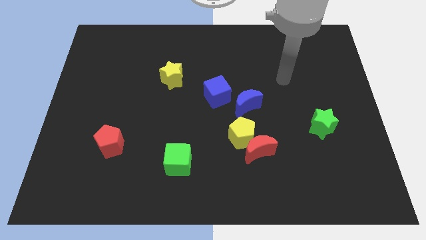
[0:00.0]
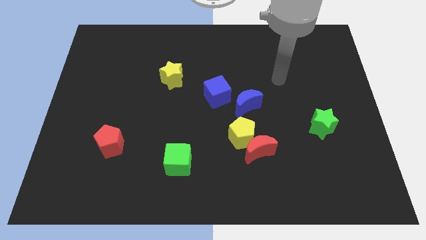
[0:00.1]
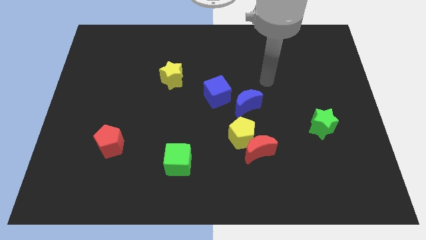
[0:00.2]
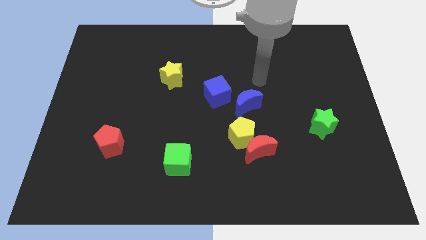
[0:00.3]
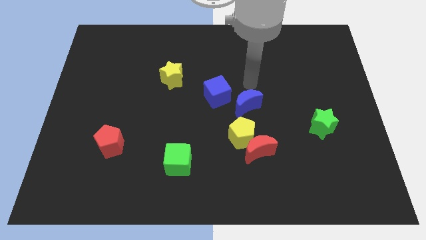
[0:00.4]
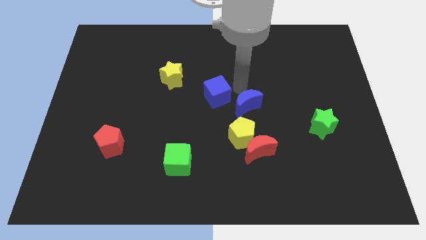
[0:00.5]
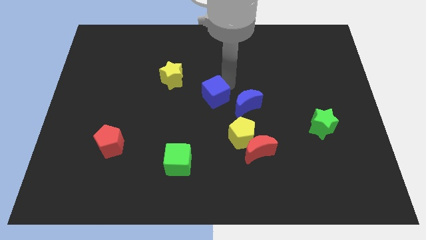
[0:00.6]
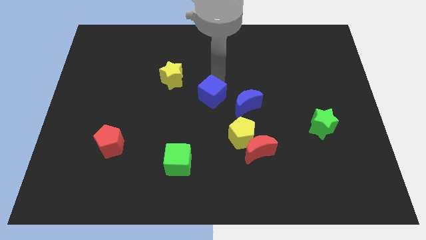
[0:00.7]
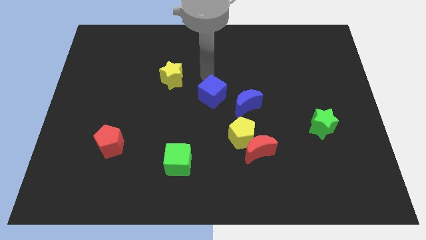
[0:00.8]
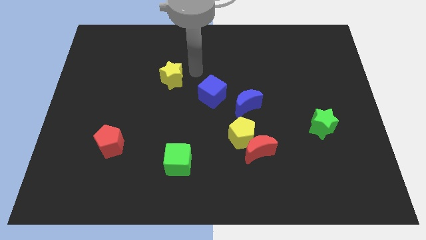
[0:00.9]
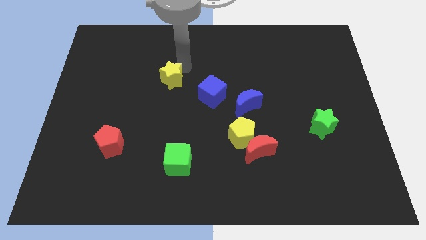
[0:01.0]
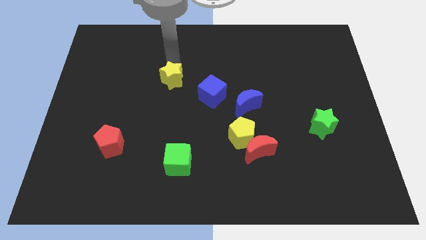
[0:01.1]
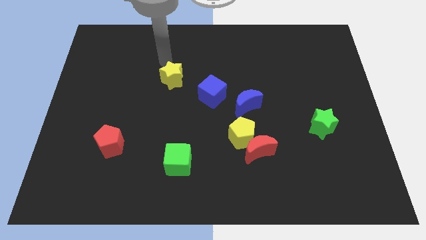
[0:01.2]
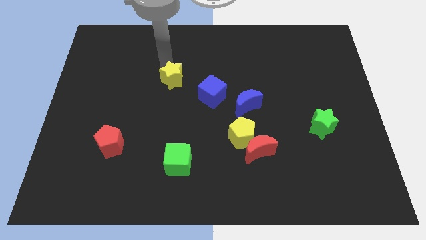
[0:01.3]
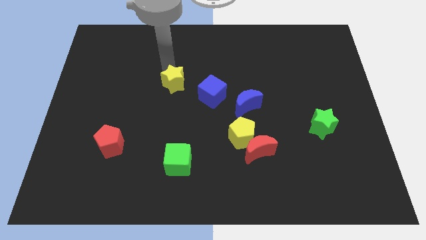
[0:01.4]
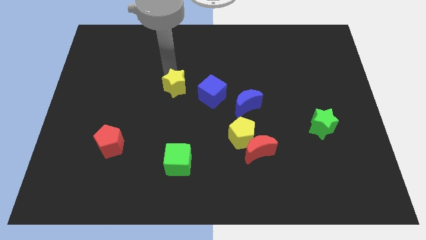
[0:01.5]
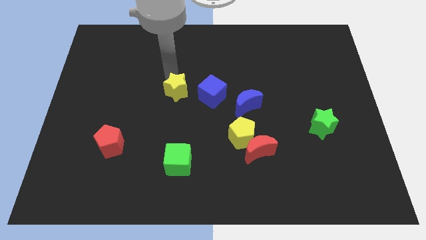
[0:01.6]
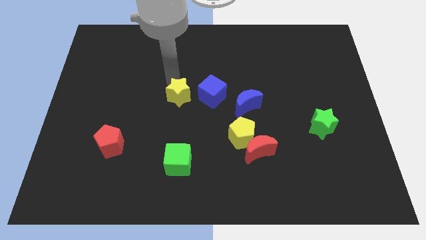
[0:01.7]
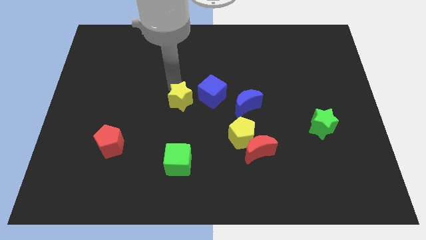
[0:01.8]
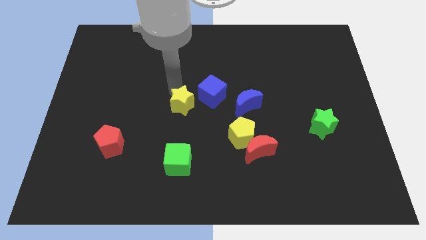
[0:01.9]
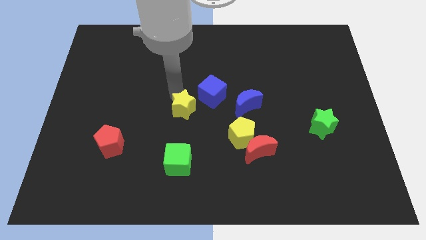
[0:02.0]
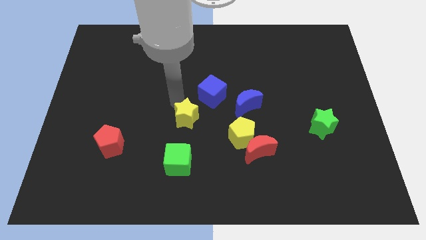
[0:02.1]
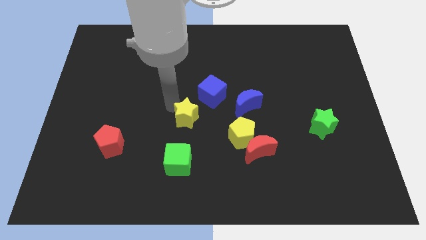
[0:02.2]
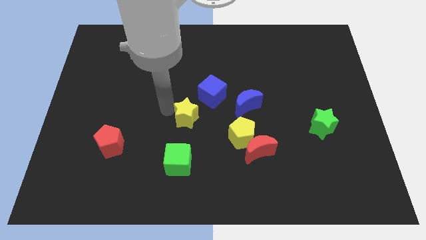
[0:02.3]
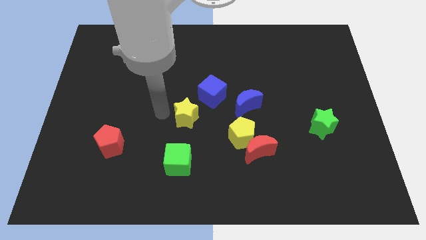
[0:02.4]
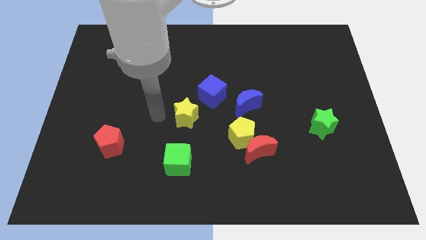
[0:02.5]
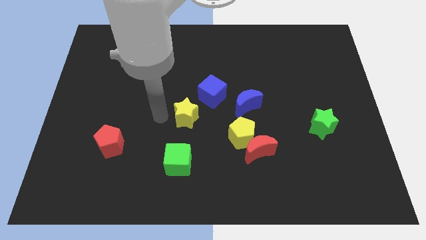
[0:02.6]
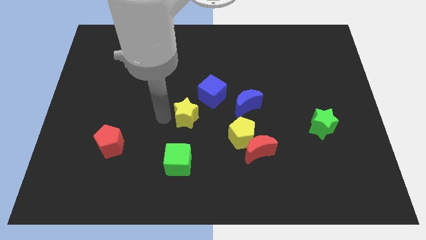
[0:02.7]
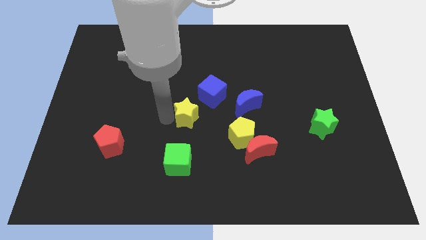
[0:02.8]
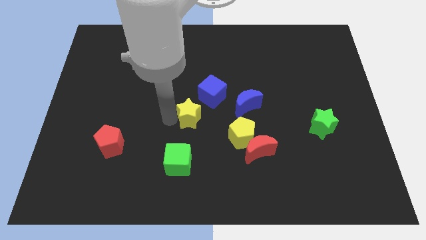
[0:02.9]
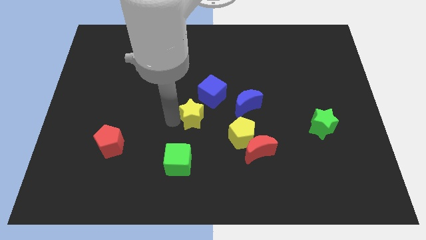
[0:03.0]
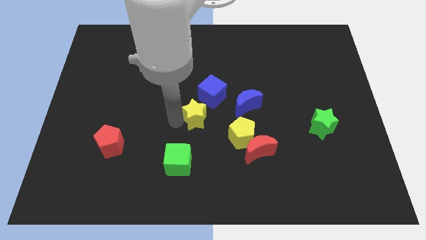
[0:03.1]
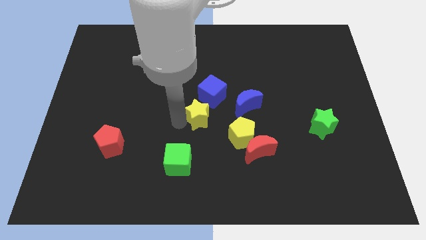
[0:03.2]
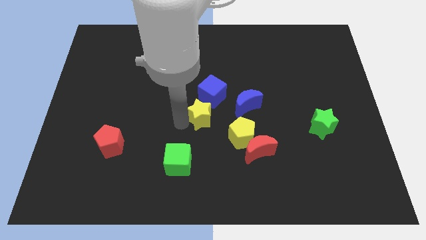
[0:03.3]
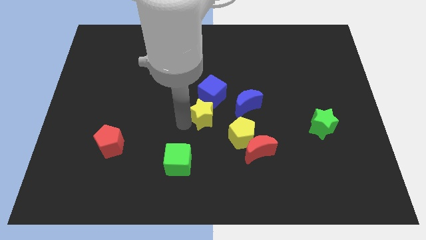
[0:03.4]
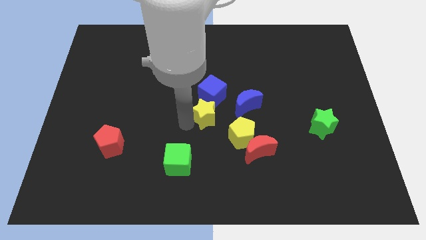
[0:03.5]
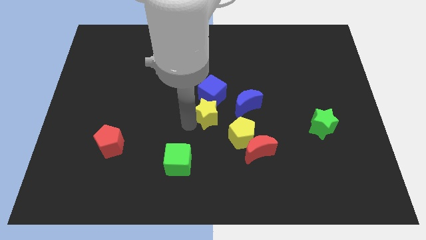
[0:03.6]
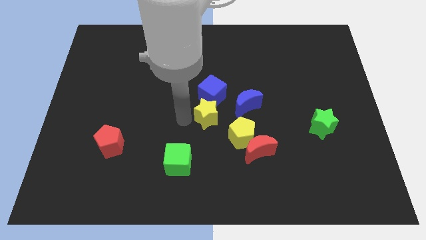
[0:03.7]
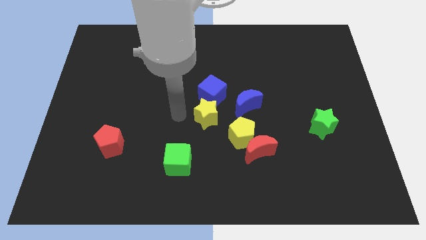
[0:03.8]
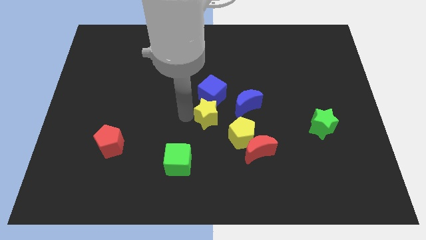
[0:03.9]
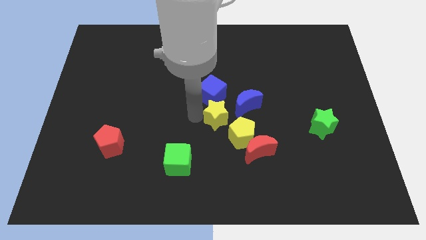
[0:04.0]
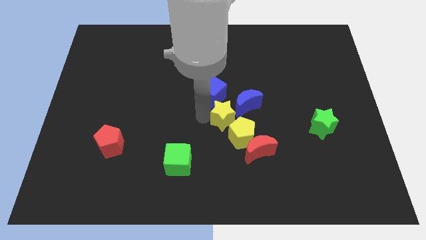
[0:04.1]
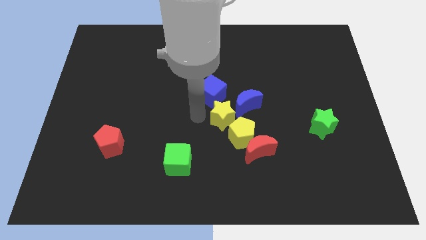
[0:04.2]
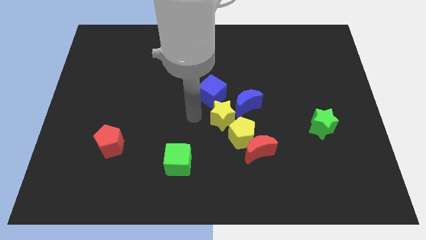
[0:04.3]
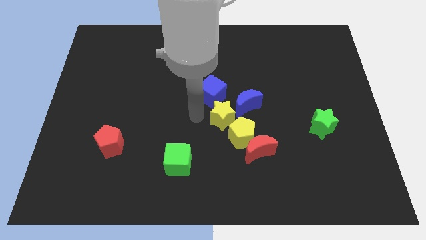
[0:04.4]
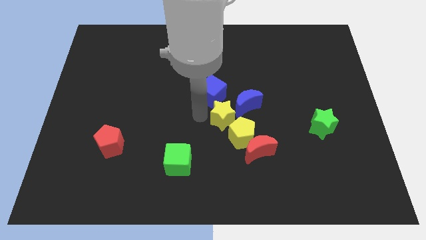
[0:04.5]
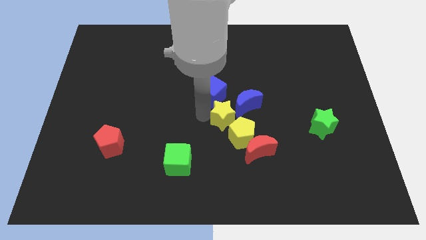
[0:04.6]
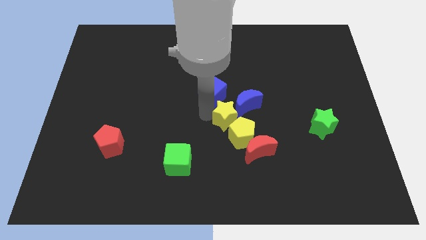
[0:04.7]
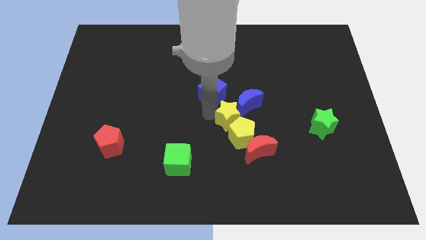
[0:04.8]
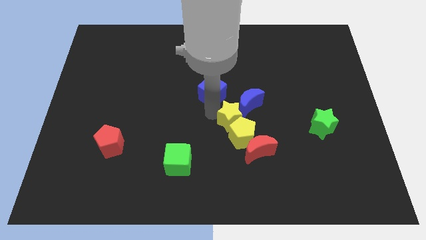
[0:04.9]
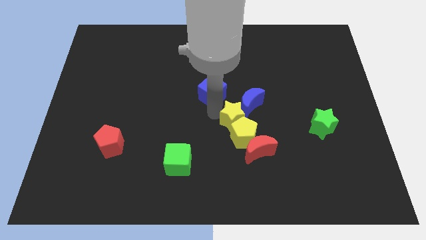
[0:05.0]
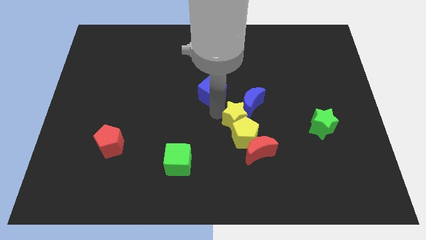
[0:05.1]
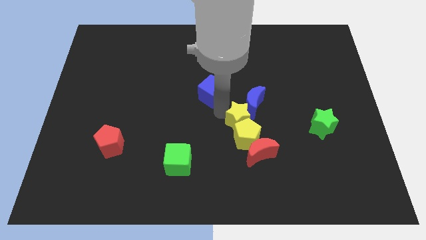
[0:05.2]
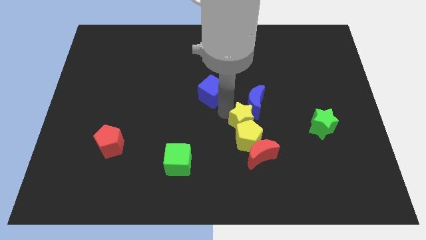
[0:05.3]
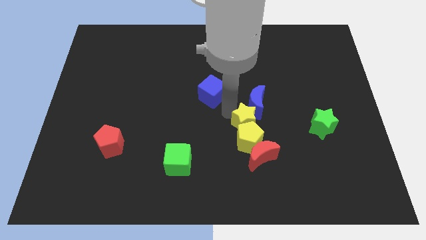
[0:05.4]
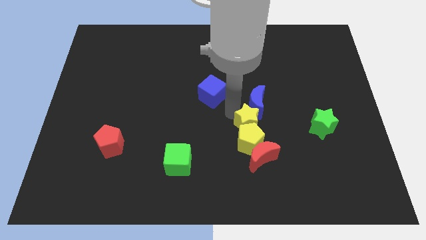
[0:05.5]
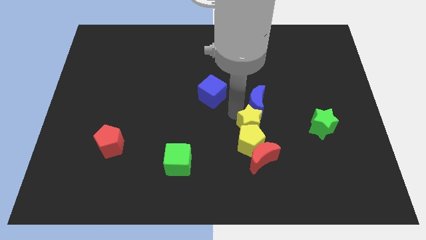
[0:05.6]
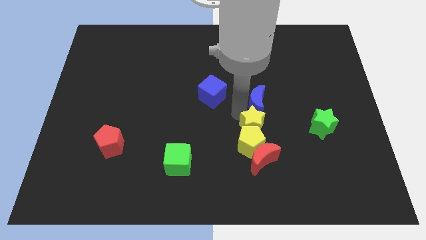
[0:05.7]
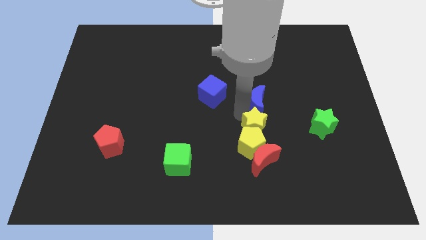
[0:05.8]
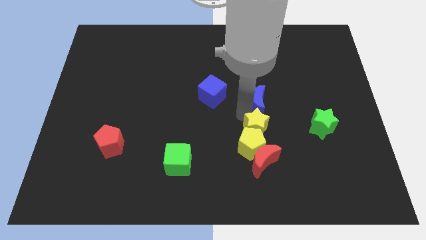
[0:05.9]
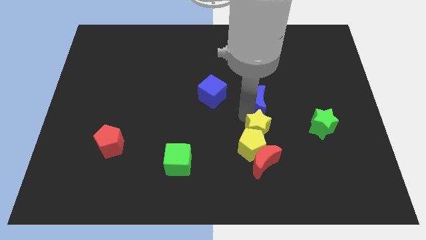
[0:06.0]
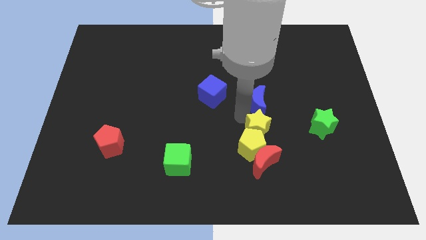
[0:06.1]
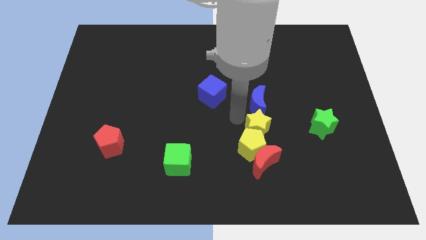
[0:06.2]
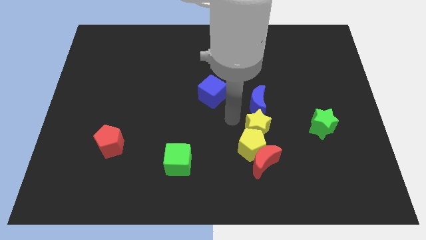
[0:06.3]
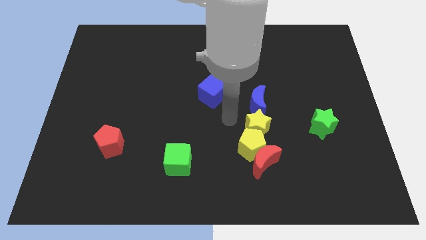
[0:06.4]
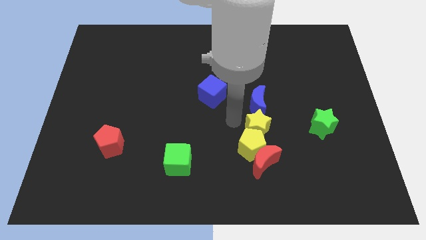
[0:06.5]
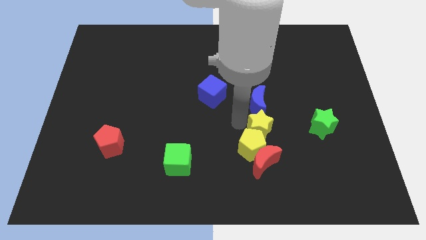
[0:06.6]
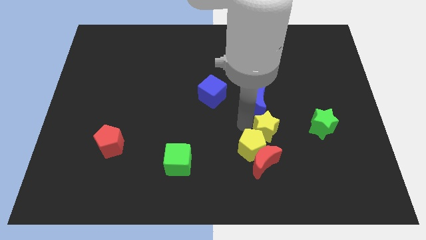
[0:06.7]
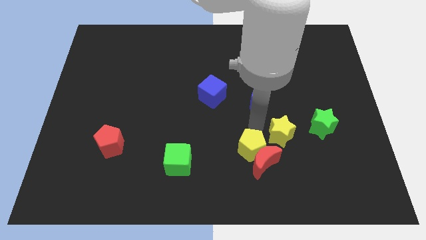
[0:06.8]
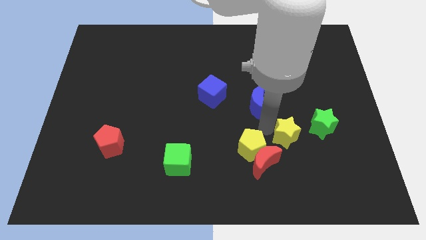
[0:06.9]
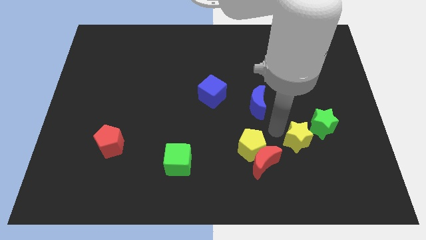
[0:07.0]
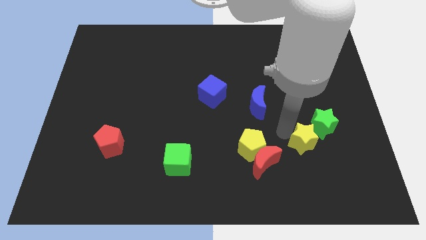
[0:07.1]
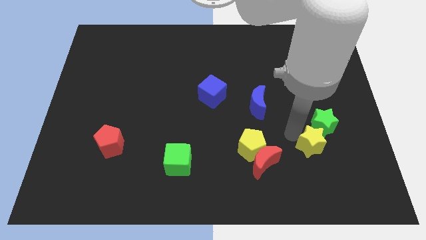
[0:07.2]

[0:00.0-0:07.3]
slide the yellow star just right of the red moon

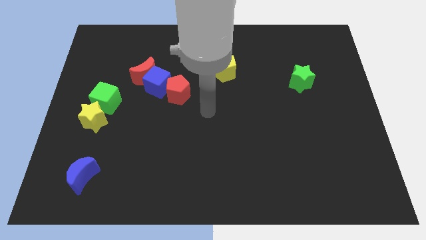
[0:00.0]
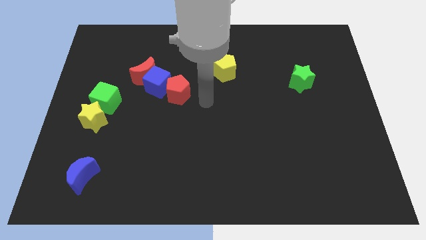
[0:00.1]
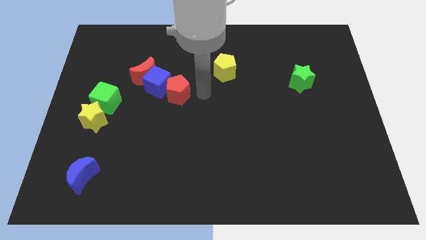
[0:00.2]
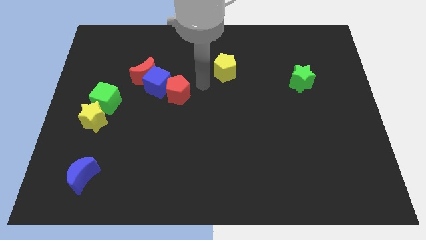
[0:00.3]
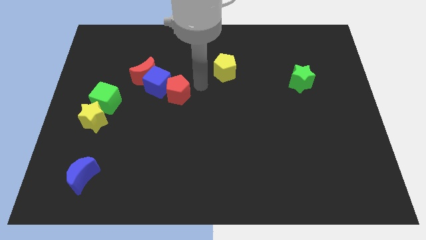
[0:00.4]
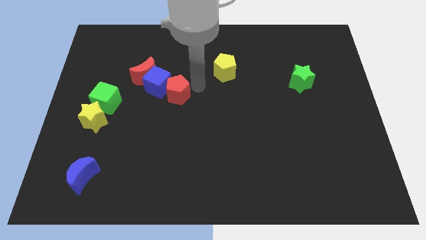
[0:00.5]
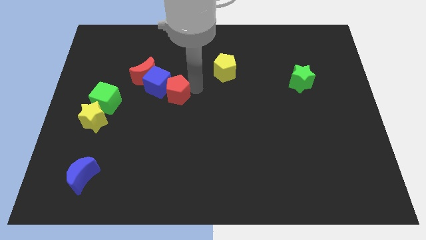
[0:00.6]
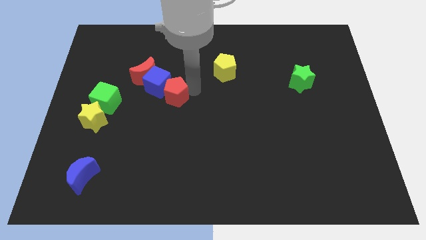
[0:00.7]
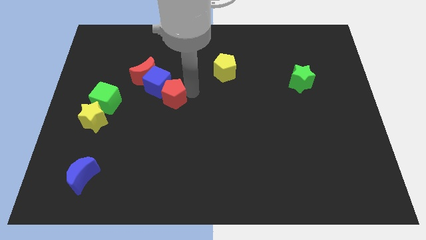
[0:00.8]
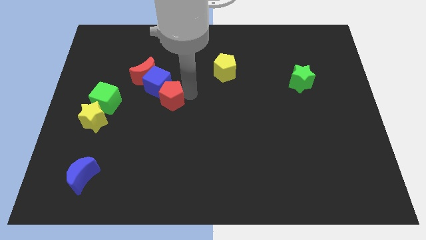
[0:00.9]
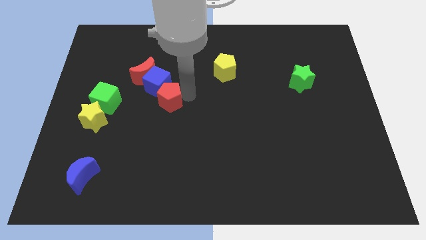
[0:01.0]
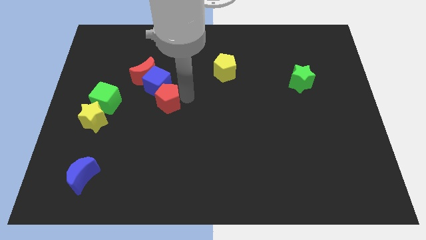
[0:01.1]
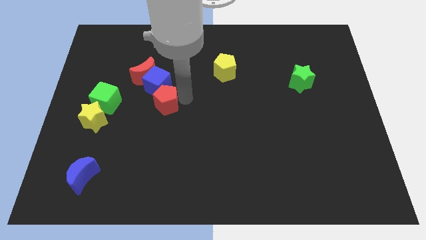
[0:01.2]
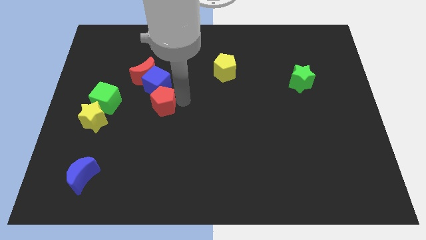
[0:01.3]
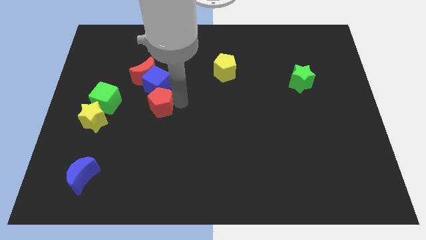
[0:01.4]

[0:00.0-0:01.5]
put the red pentagon below the red moon
